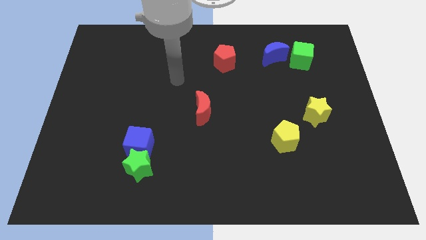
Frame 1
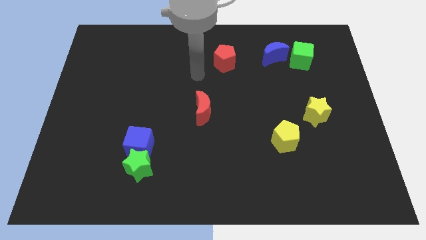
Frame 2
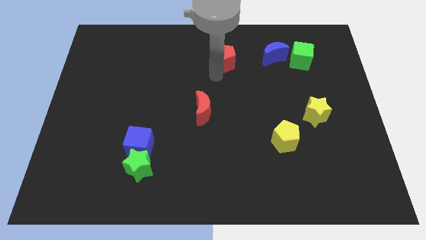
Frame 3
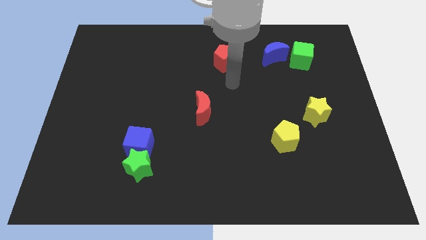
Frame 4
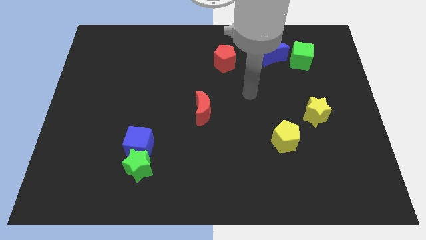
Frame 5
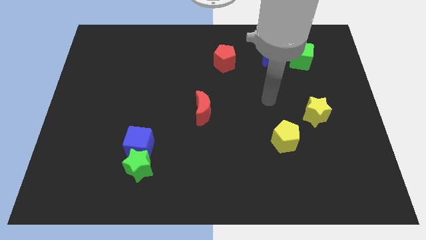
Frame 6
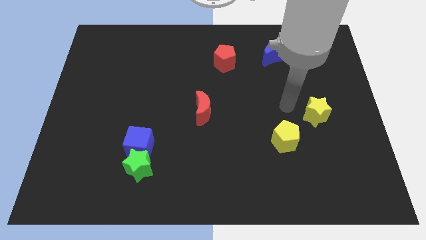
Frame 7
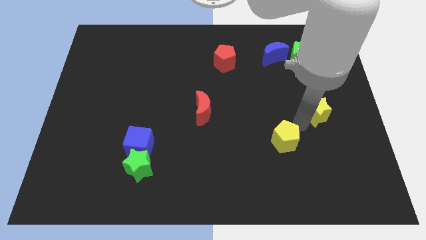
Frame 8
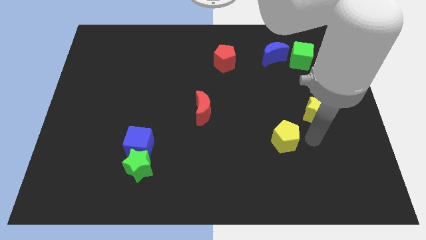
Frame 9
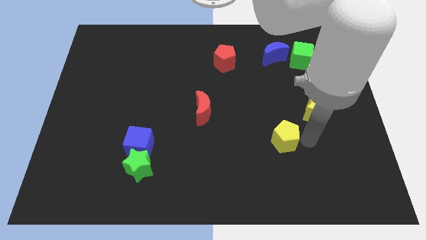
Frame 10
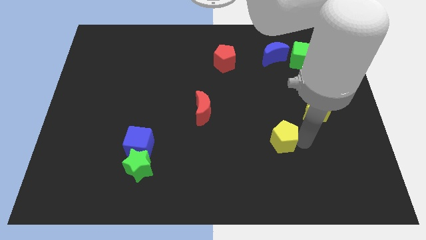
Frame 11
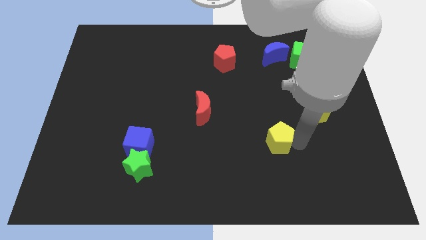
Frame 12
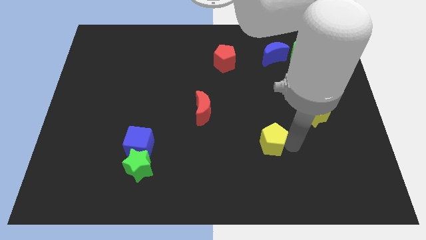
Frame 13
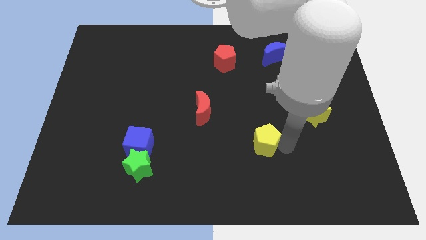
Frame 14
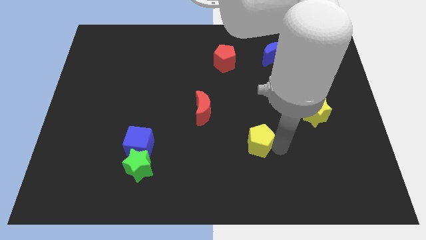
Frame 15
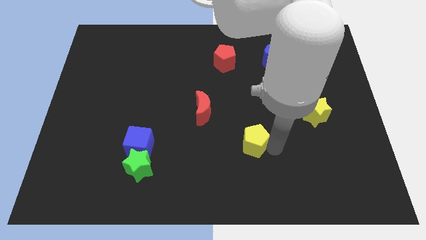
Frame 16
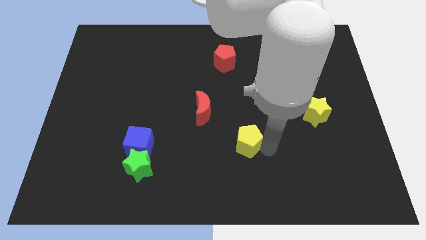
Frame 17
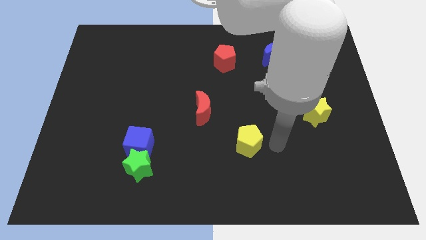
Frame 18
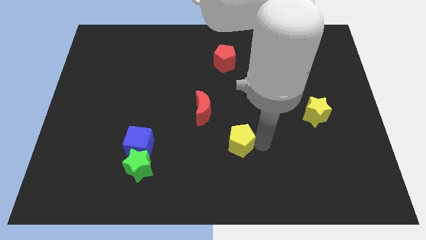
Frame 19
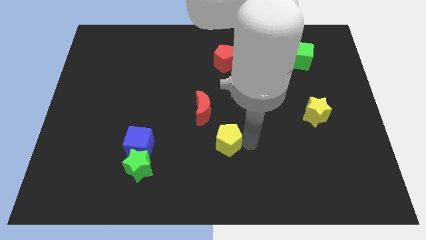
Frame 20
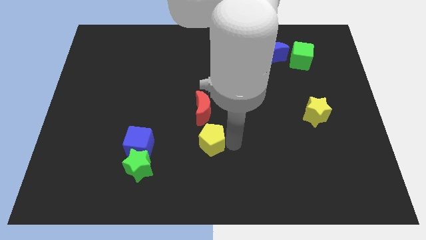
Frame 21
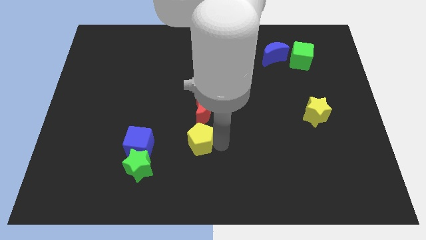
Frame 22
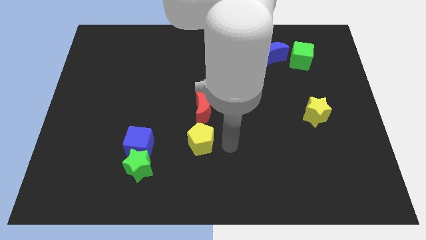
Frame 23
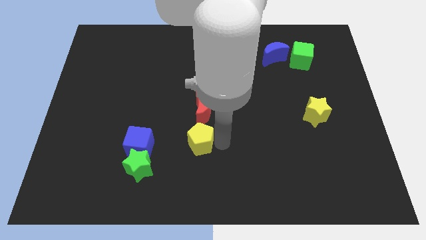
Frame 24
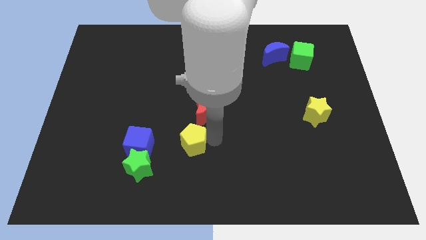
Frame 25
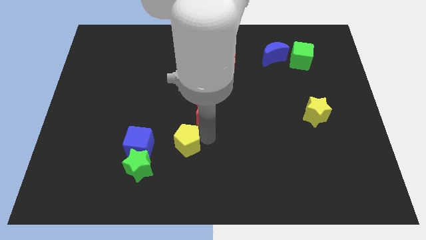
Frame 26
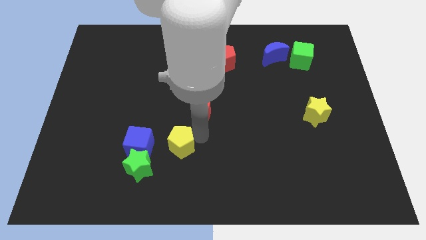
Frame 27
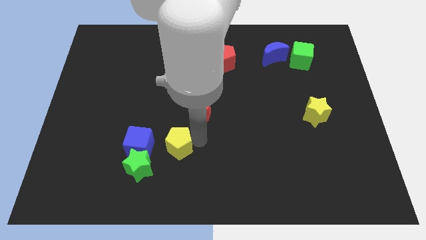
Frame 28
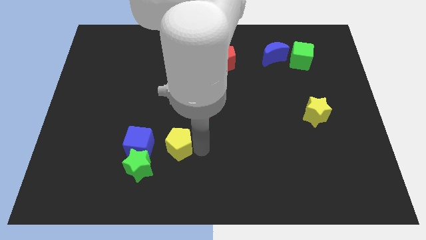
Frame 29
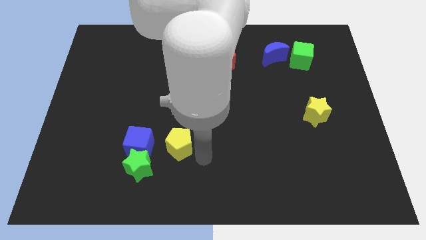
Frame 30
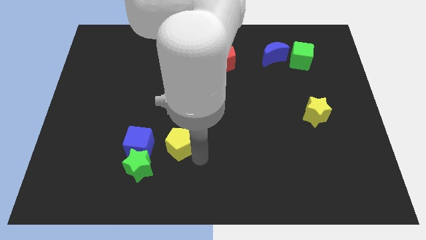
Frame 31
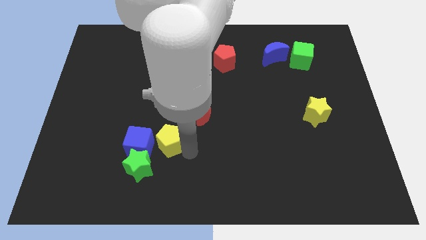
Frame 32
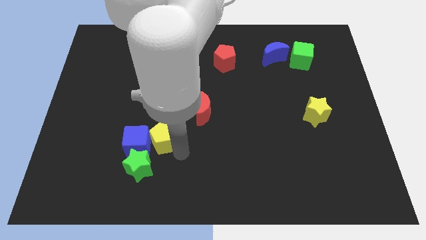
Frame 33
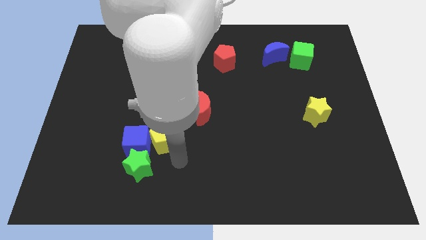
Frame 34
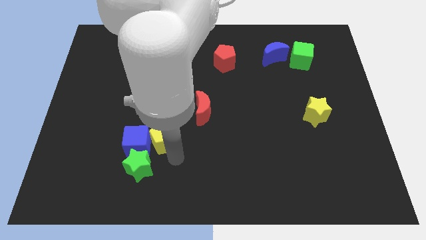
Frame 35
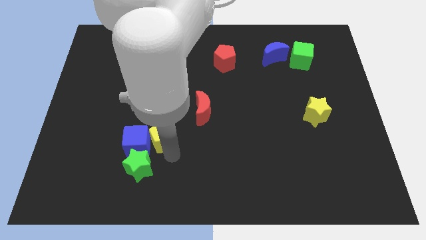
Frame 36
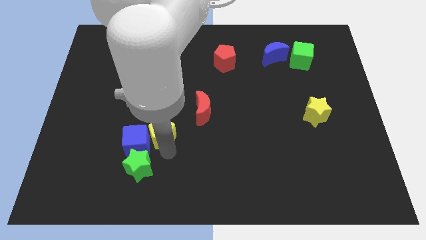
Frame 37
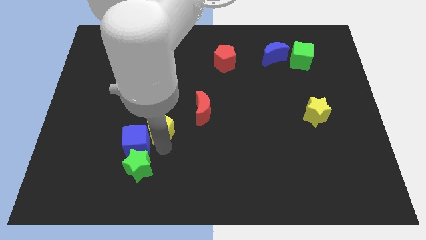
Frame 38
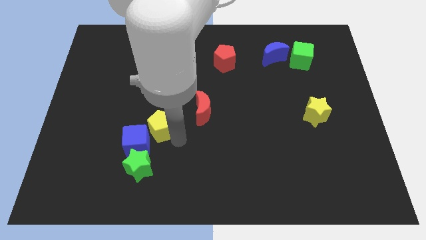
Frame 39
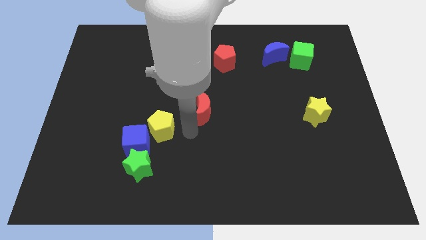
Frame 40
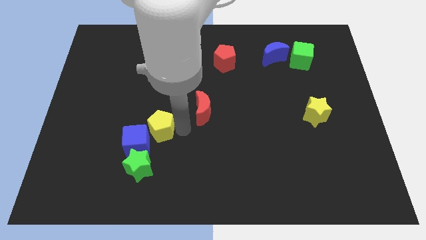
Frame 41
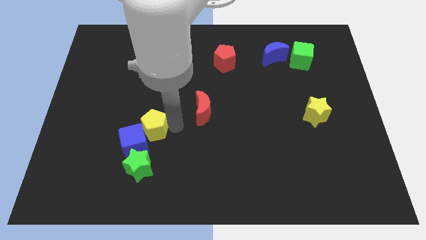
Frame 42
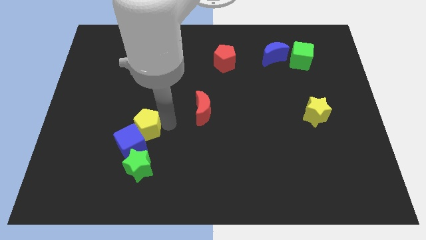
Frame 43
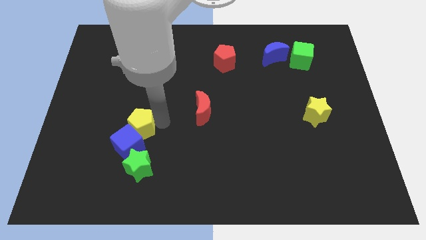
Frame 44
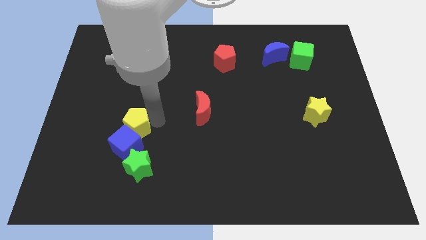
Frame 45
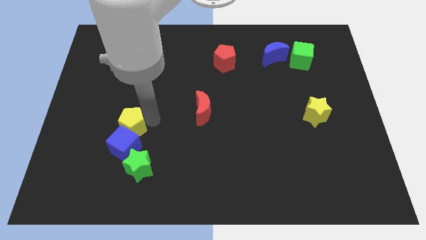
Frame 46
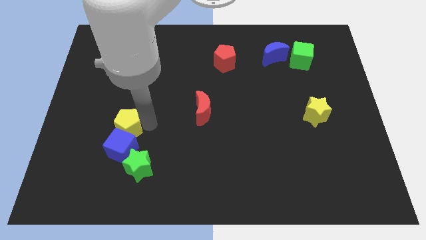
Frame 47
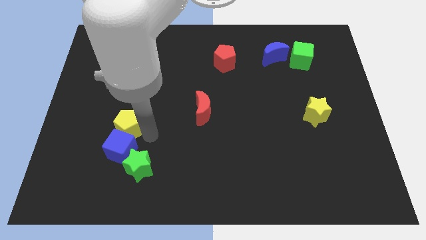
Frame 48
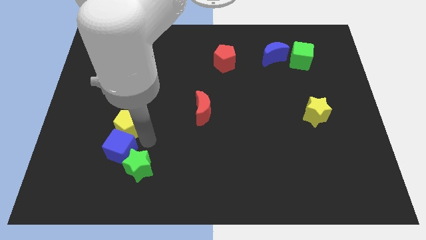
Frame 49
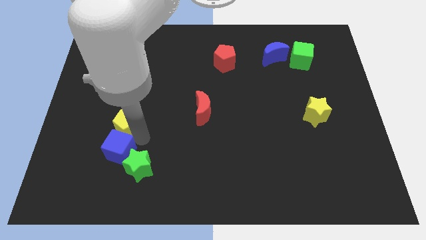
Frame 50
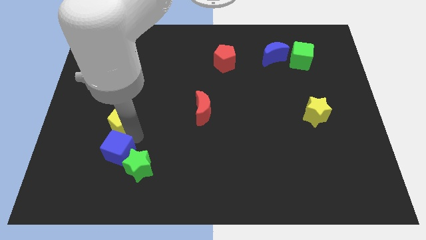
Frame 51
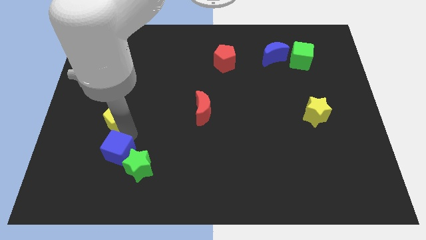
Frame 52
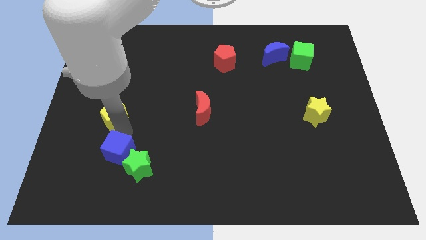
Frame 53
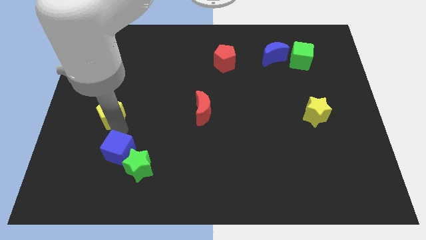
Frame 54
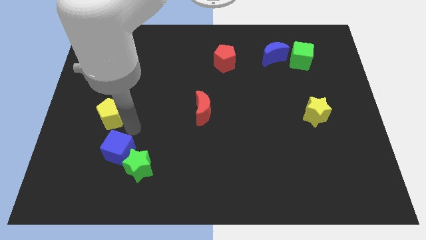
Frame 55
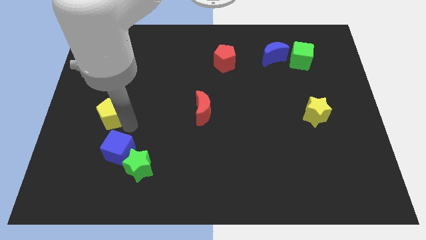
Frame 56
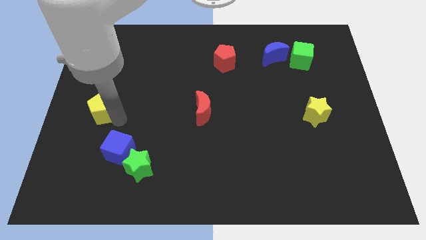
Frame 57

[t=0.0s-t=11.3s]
put the yellow pentagon to the center left

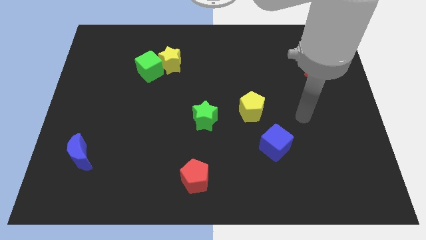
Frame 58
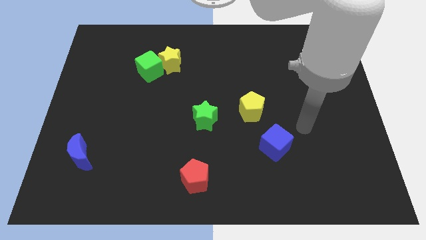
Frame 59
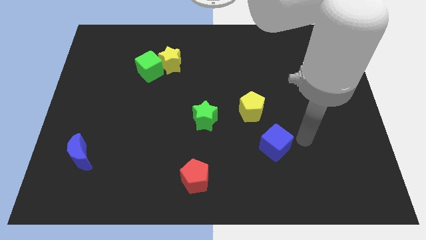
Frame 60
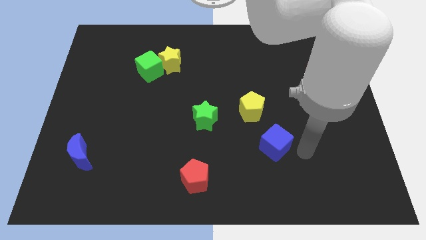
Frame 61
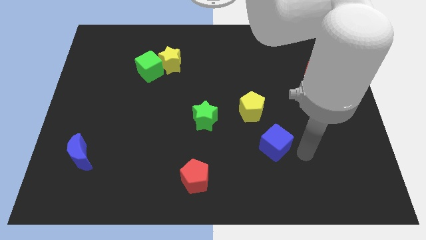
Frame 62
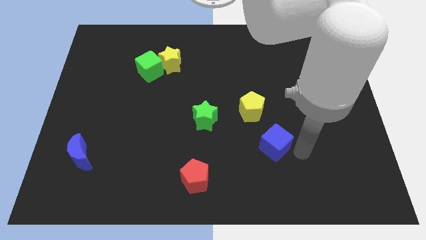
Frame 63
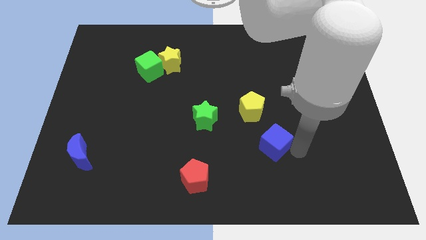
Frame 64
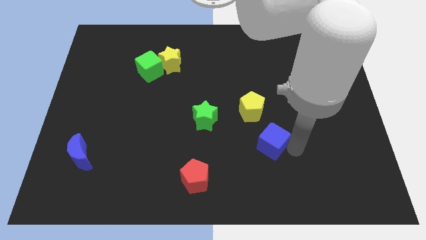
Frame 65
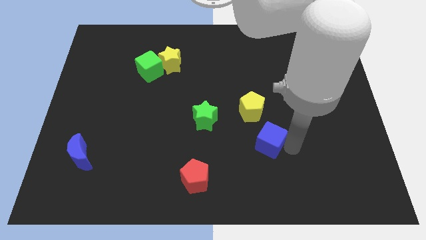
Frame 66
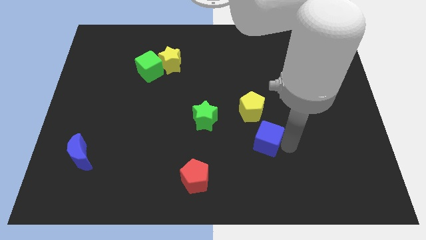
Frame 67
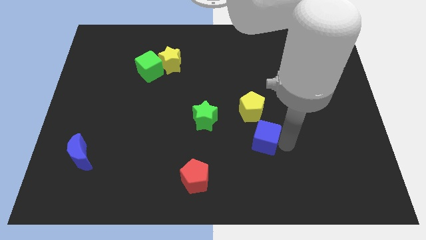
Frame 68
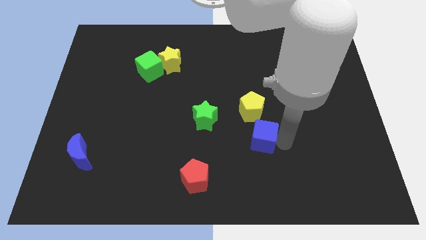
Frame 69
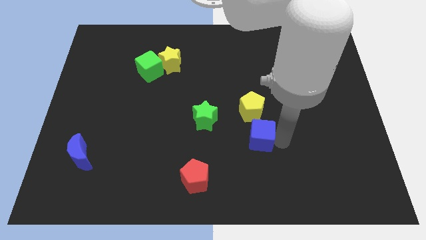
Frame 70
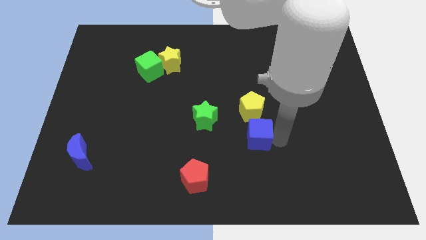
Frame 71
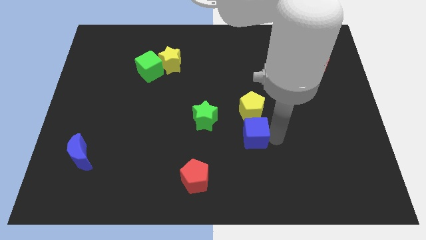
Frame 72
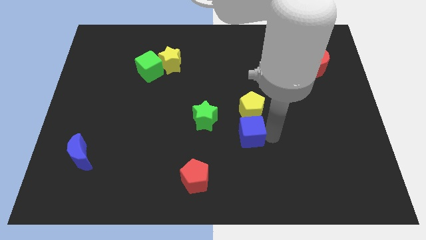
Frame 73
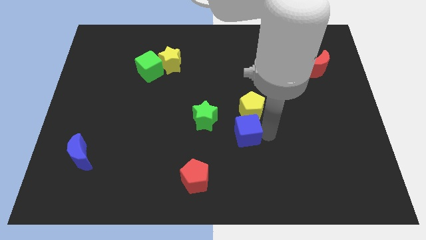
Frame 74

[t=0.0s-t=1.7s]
push the blue cube to the middle of the board
